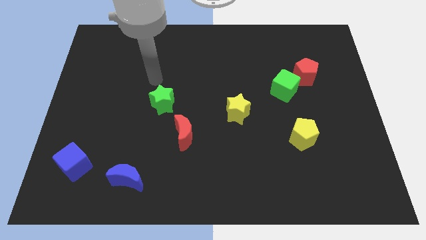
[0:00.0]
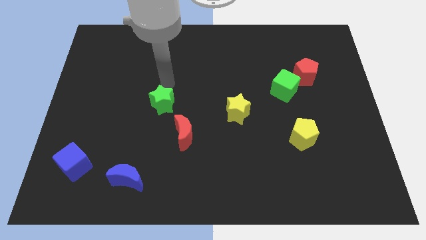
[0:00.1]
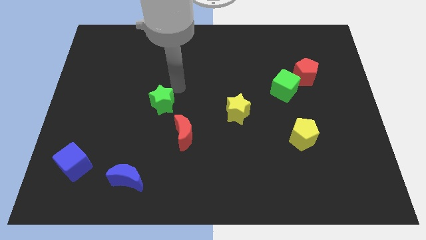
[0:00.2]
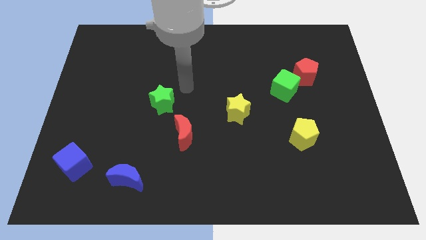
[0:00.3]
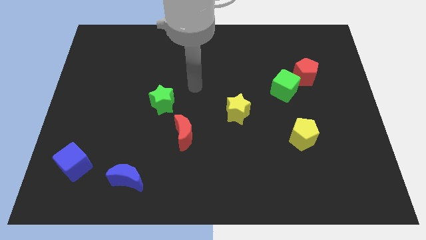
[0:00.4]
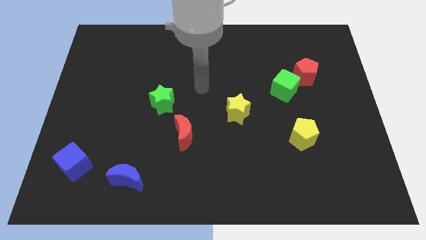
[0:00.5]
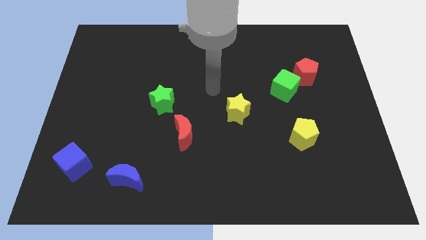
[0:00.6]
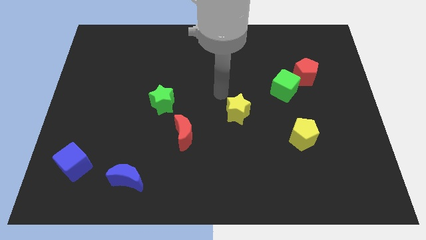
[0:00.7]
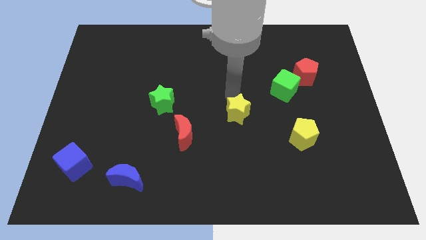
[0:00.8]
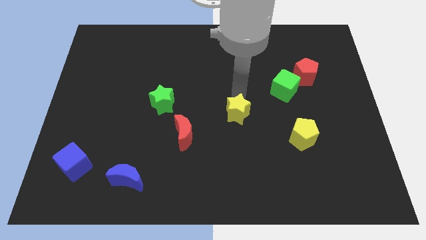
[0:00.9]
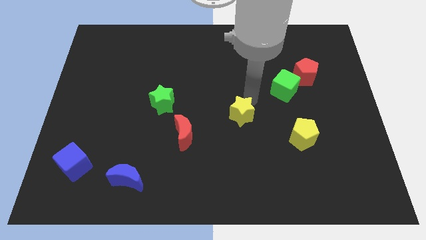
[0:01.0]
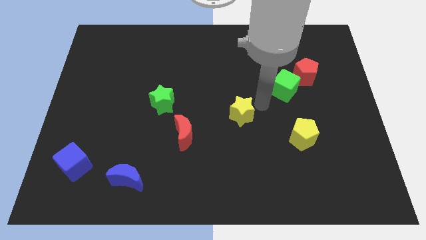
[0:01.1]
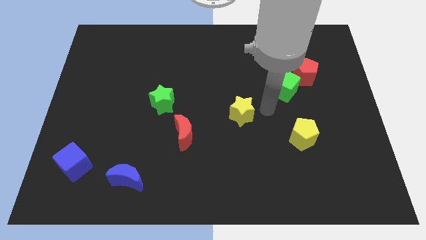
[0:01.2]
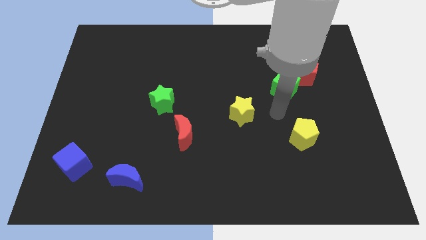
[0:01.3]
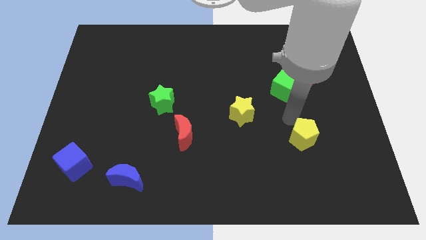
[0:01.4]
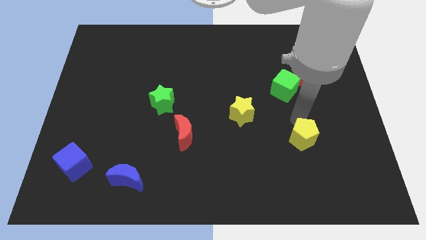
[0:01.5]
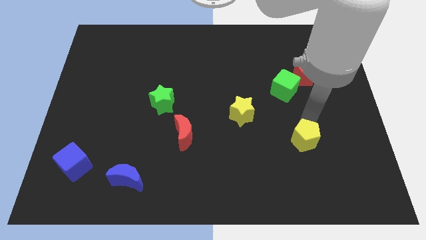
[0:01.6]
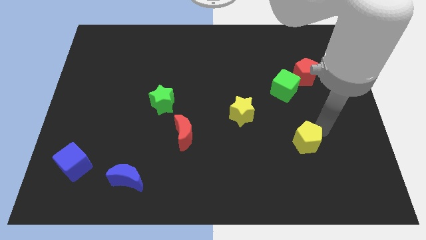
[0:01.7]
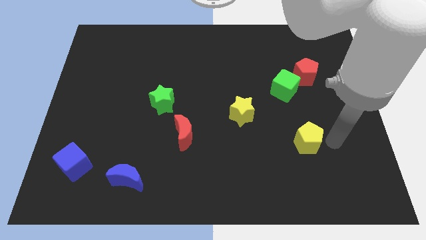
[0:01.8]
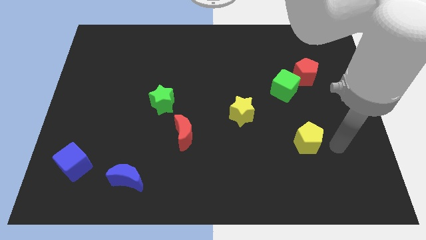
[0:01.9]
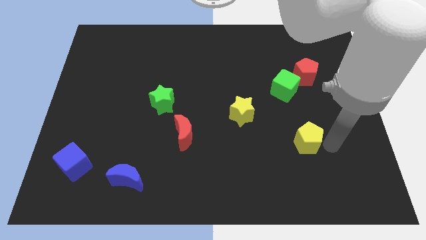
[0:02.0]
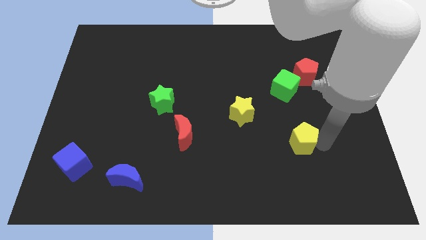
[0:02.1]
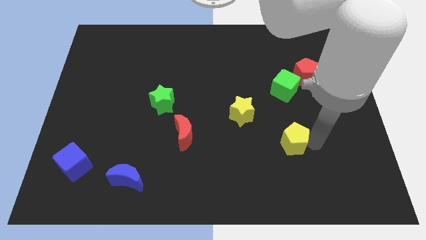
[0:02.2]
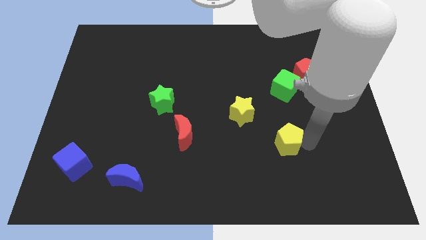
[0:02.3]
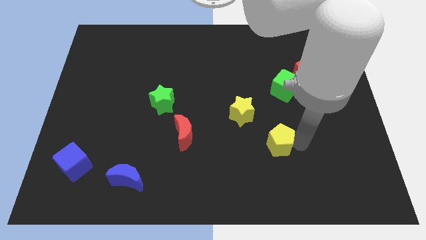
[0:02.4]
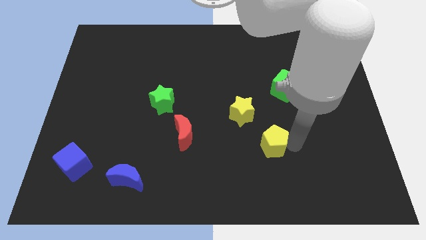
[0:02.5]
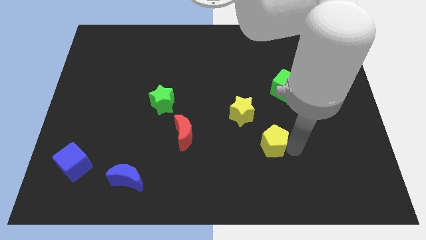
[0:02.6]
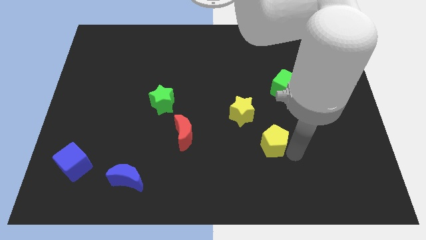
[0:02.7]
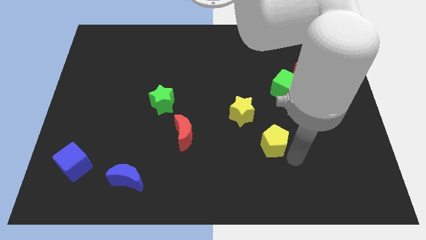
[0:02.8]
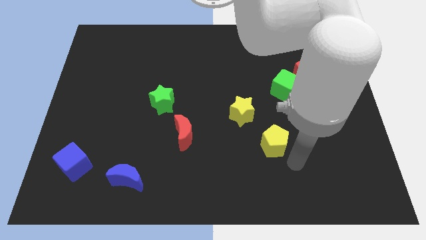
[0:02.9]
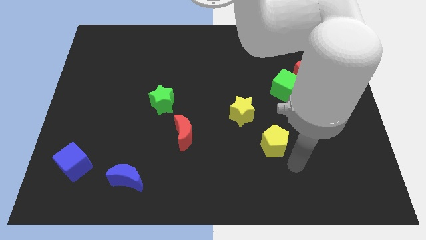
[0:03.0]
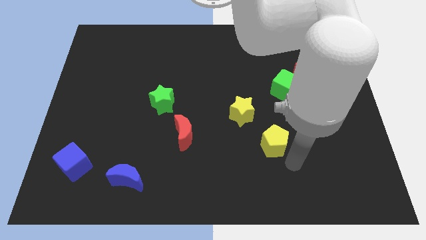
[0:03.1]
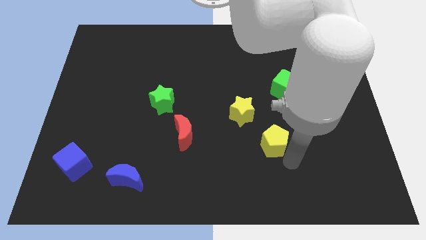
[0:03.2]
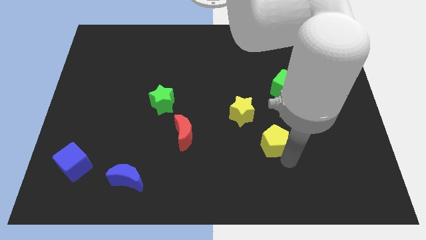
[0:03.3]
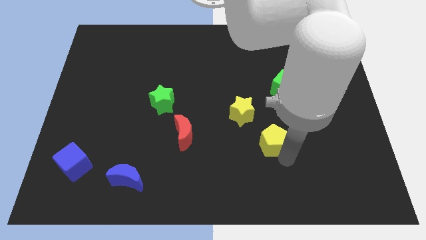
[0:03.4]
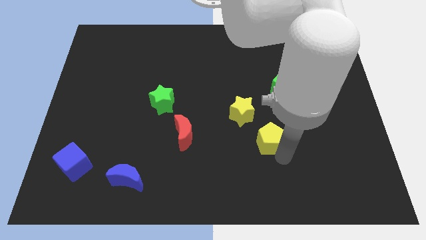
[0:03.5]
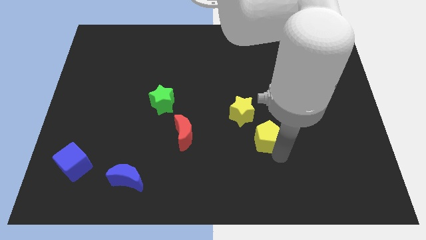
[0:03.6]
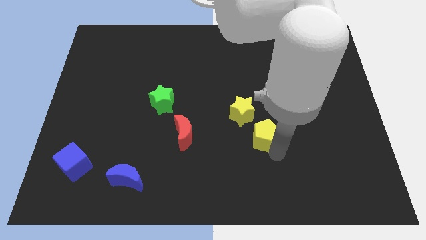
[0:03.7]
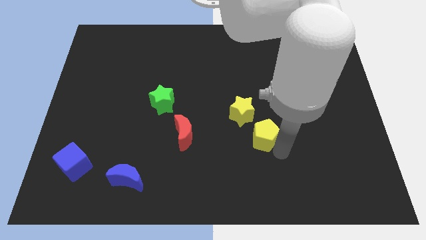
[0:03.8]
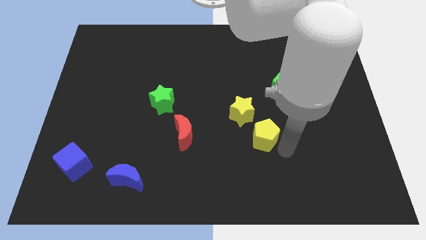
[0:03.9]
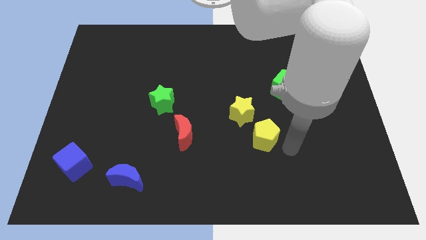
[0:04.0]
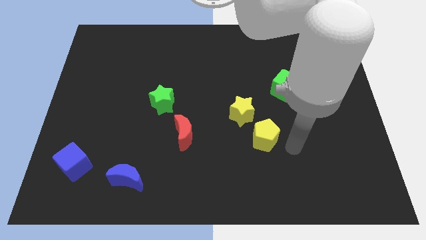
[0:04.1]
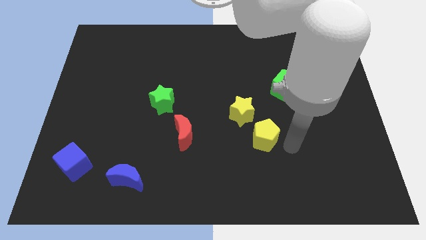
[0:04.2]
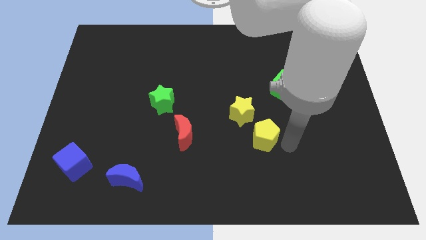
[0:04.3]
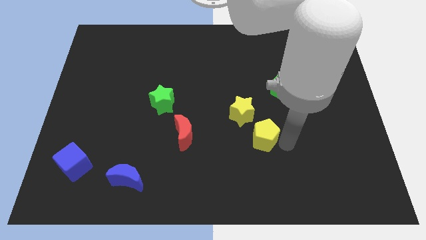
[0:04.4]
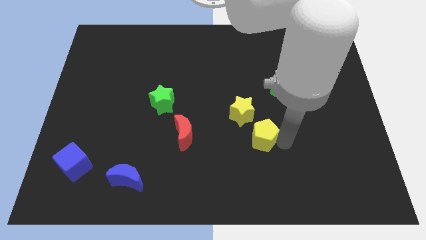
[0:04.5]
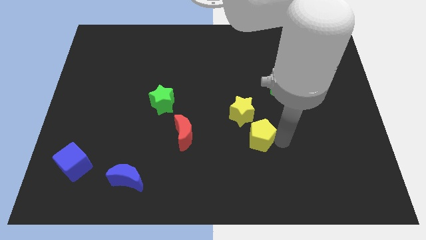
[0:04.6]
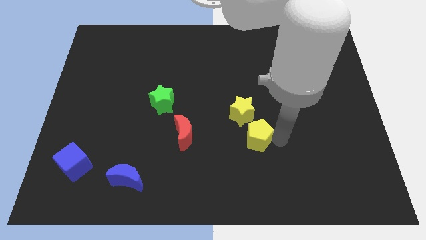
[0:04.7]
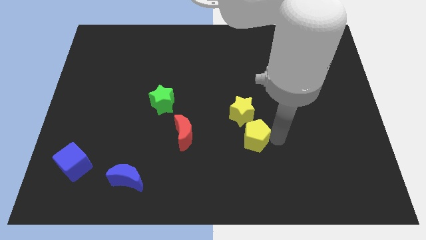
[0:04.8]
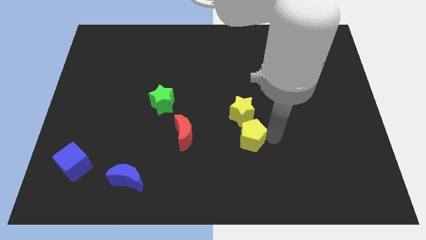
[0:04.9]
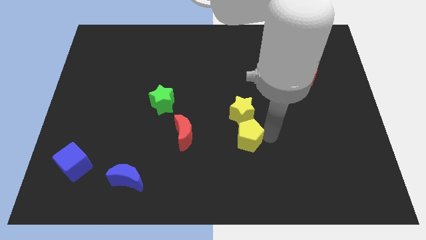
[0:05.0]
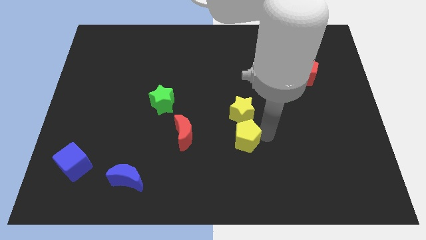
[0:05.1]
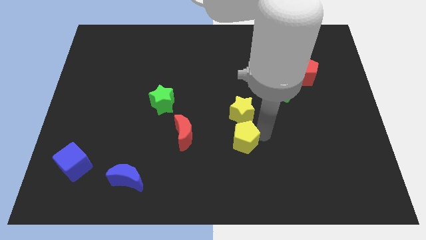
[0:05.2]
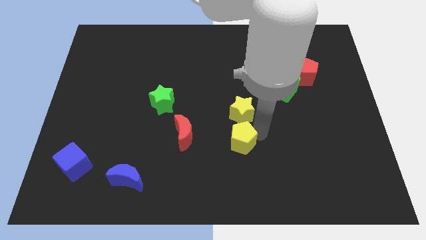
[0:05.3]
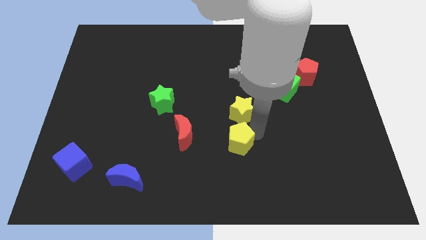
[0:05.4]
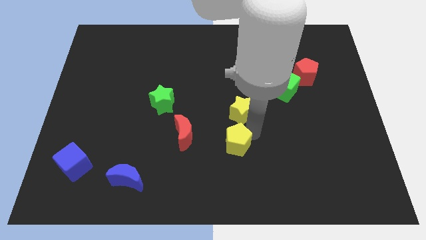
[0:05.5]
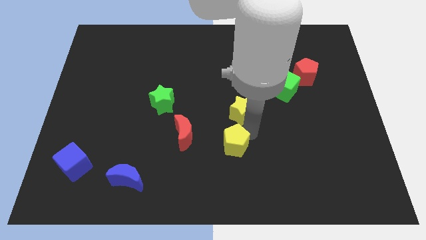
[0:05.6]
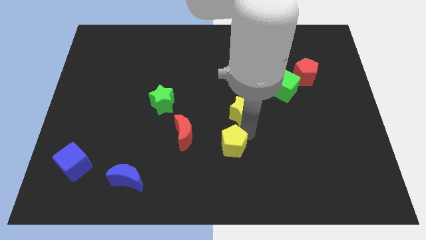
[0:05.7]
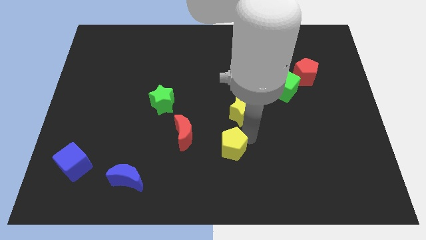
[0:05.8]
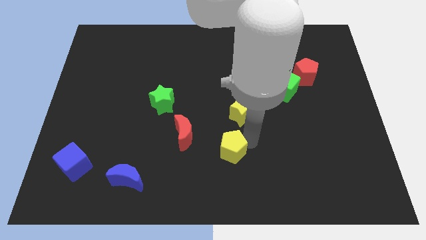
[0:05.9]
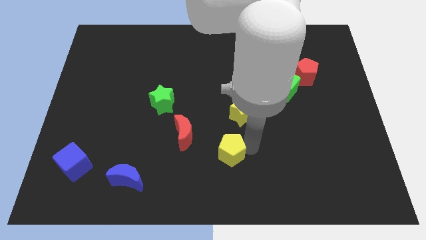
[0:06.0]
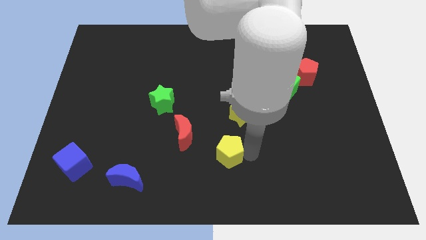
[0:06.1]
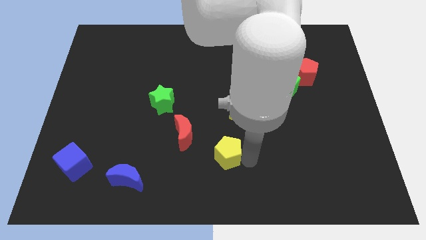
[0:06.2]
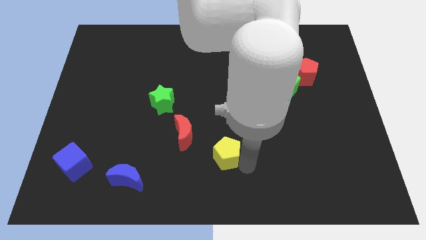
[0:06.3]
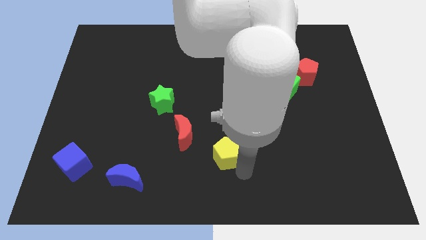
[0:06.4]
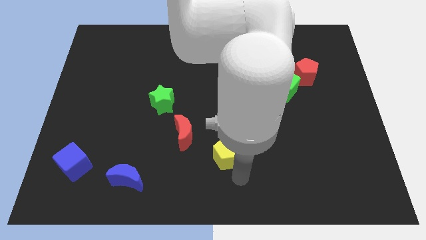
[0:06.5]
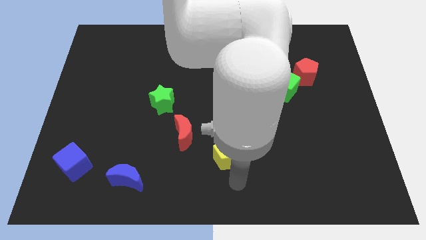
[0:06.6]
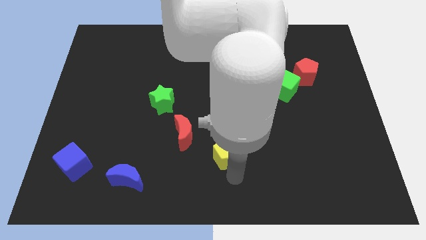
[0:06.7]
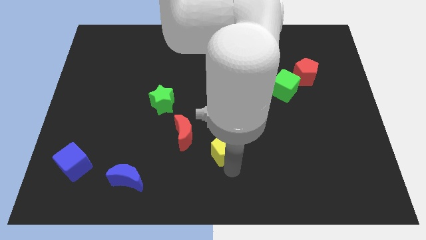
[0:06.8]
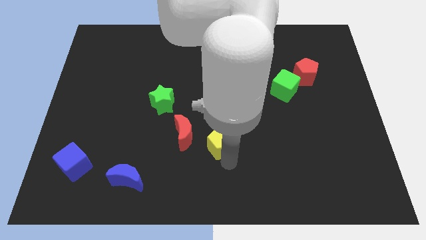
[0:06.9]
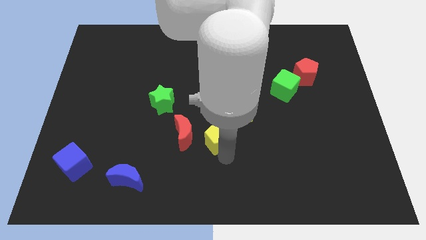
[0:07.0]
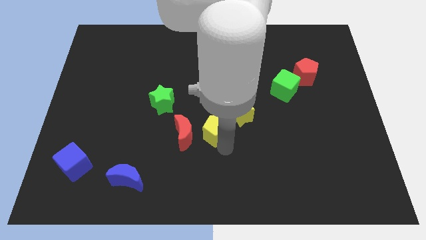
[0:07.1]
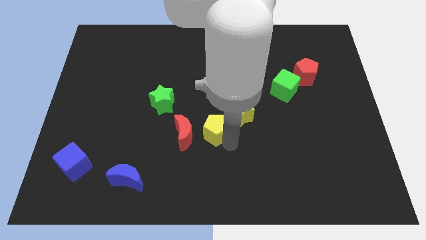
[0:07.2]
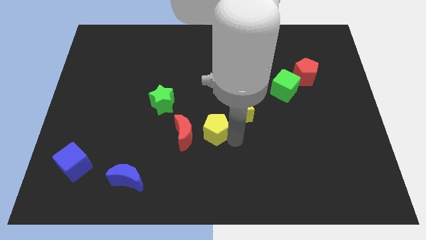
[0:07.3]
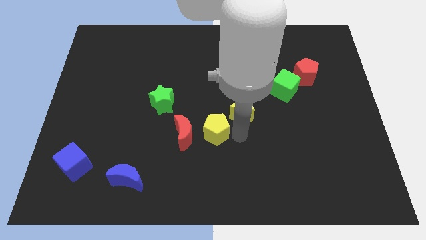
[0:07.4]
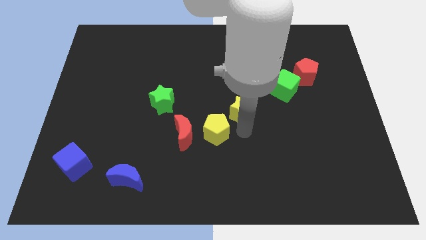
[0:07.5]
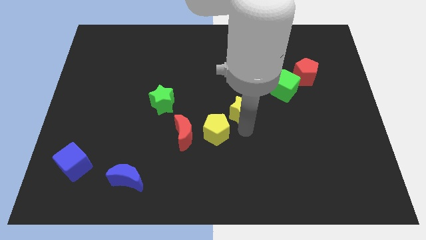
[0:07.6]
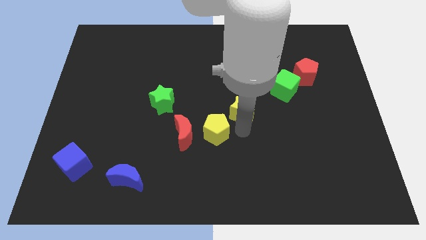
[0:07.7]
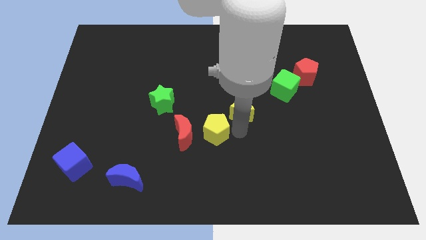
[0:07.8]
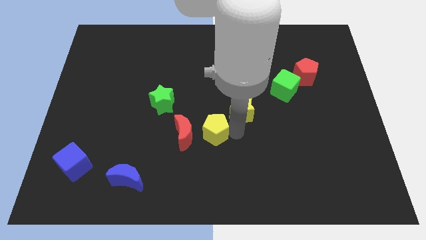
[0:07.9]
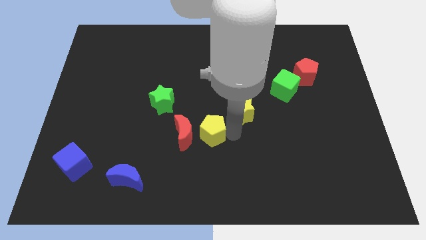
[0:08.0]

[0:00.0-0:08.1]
push the yellow pentagon towards the red moon
